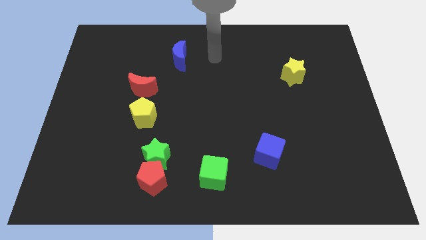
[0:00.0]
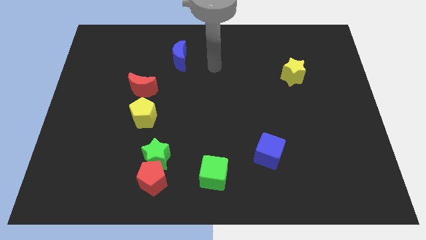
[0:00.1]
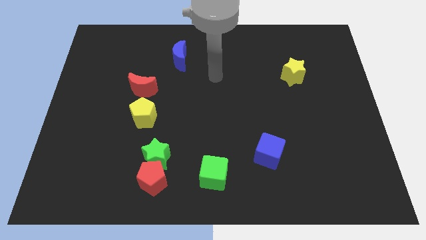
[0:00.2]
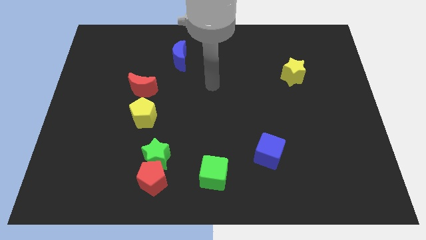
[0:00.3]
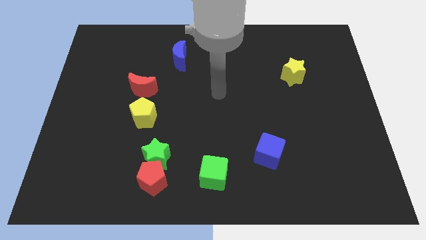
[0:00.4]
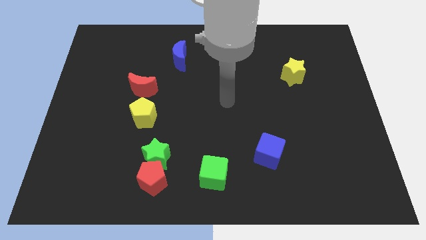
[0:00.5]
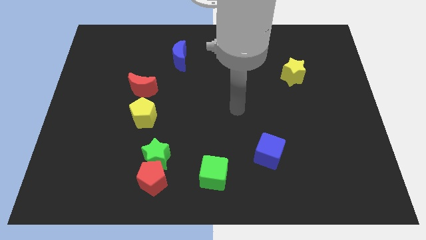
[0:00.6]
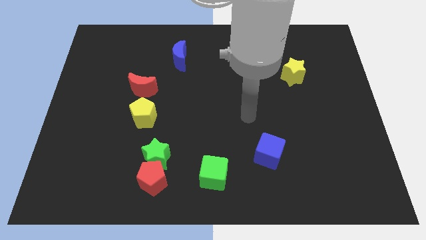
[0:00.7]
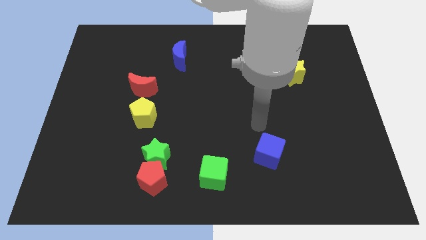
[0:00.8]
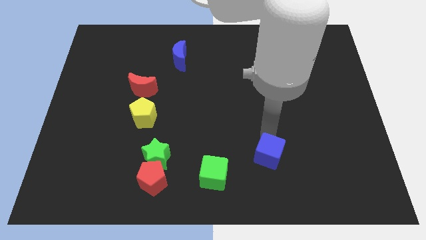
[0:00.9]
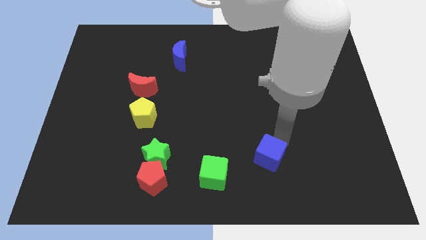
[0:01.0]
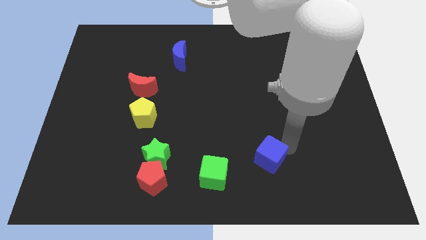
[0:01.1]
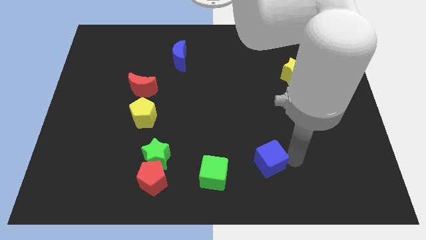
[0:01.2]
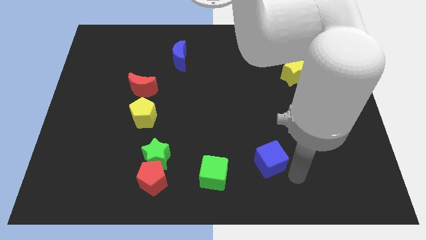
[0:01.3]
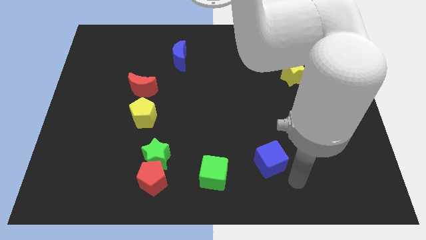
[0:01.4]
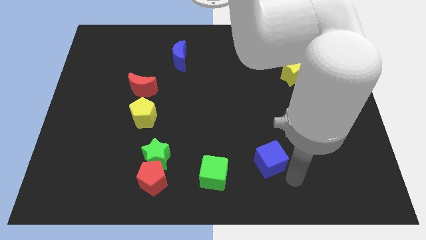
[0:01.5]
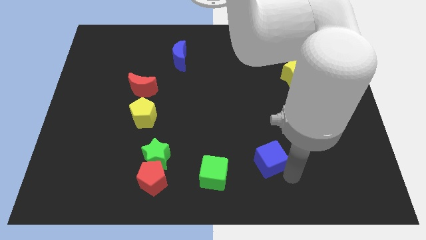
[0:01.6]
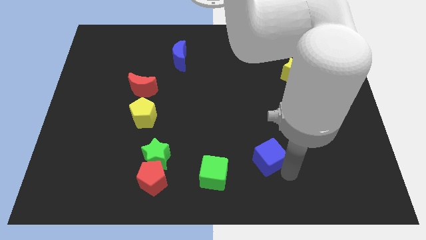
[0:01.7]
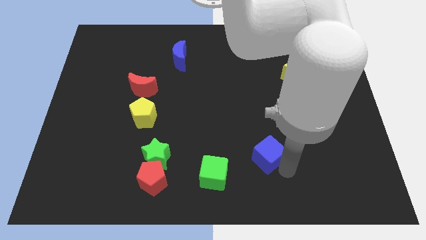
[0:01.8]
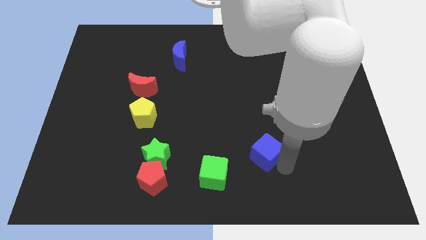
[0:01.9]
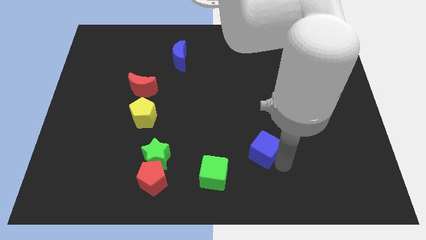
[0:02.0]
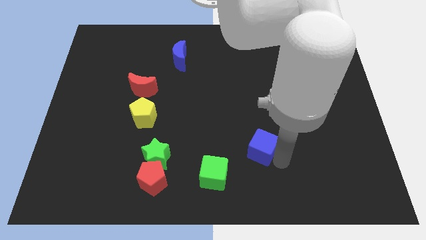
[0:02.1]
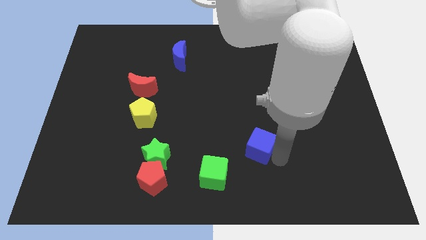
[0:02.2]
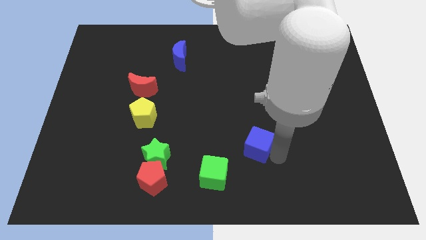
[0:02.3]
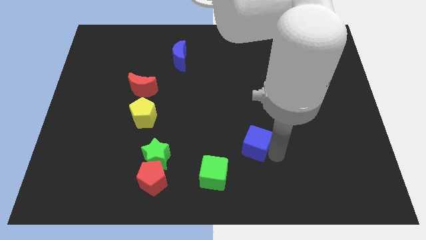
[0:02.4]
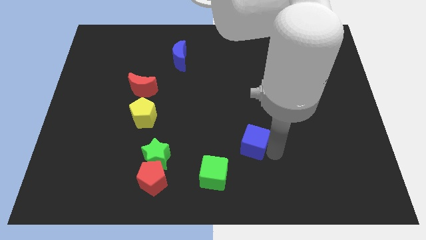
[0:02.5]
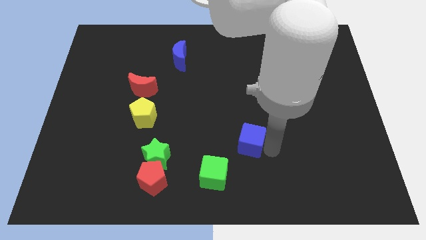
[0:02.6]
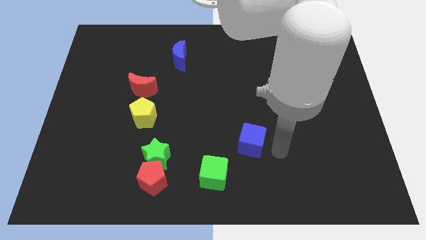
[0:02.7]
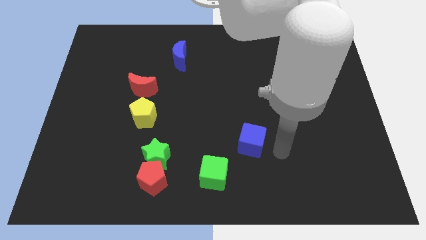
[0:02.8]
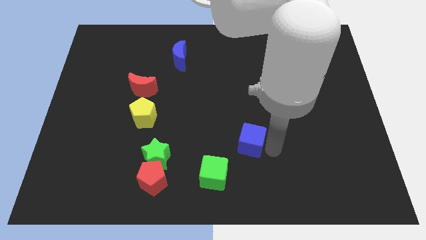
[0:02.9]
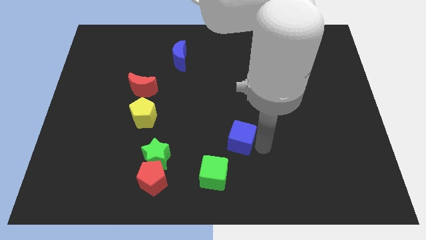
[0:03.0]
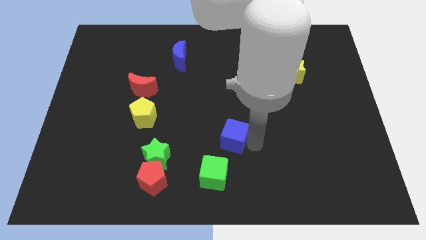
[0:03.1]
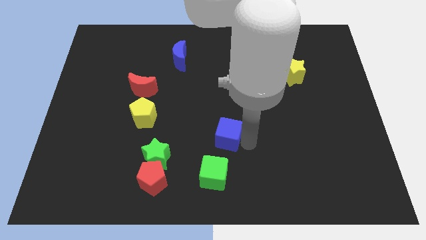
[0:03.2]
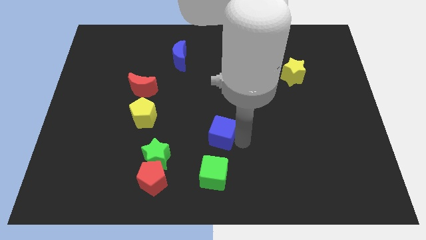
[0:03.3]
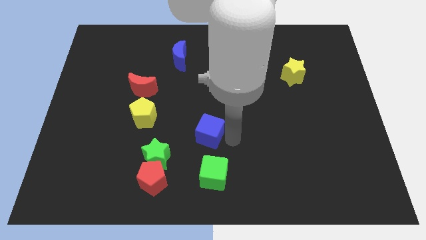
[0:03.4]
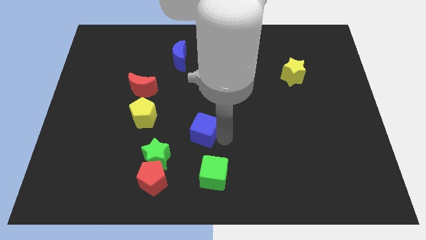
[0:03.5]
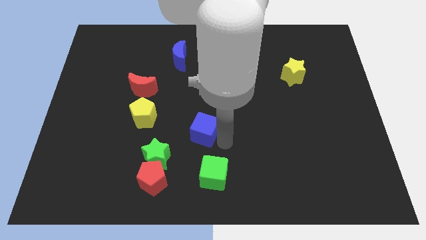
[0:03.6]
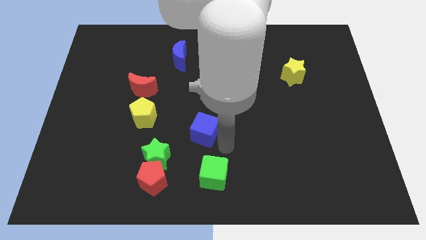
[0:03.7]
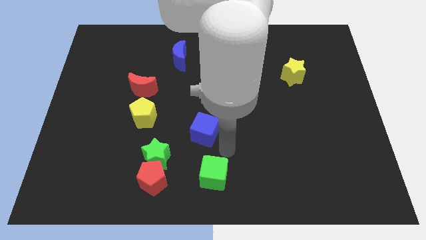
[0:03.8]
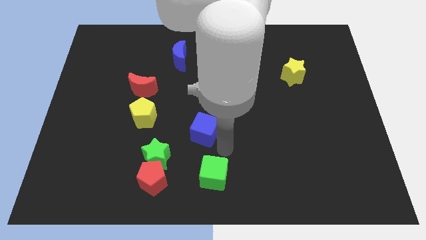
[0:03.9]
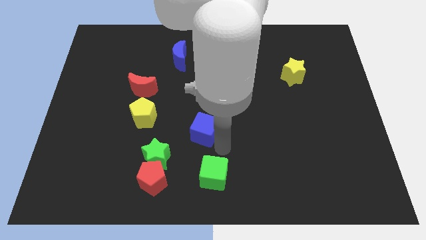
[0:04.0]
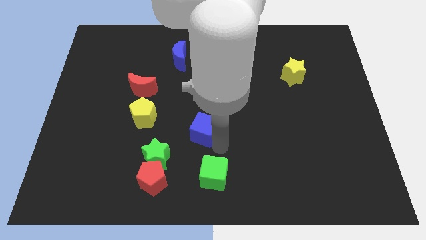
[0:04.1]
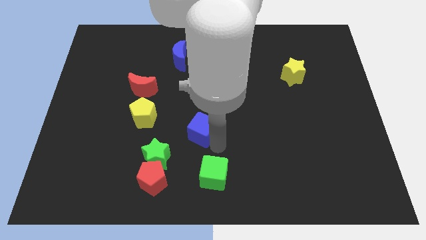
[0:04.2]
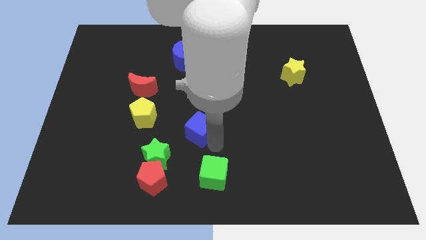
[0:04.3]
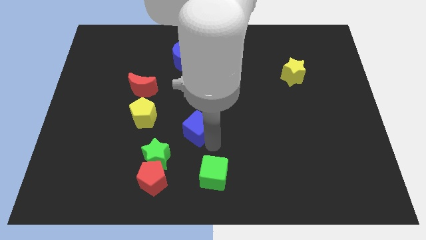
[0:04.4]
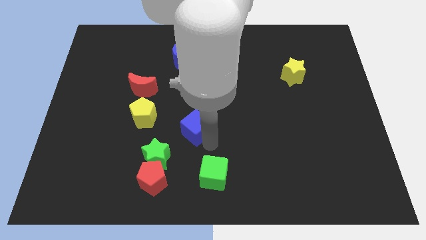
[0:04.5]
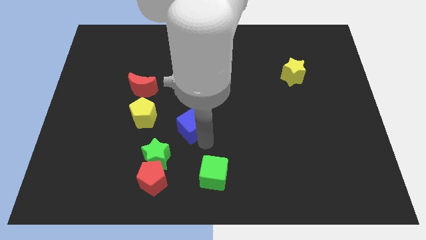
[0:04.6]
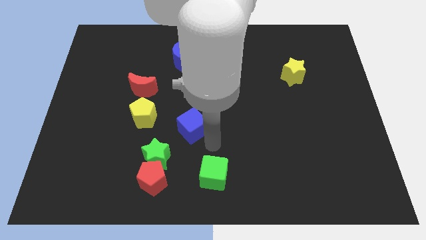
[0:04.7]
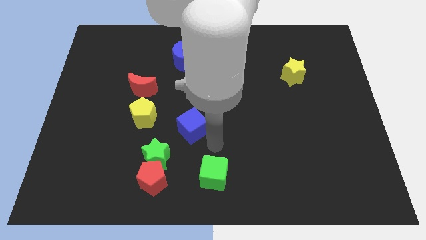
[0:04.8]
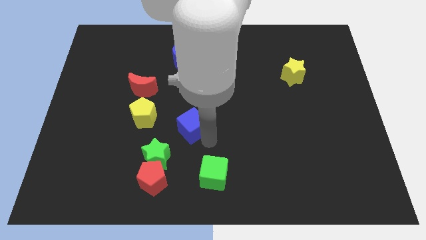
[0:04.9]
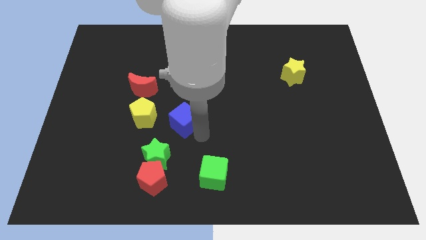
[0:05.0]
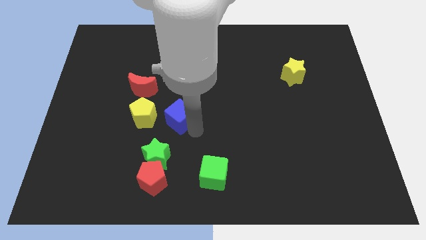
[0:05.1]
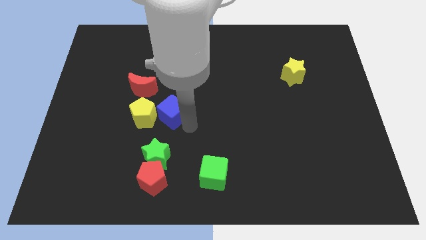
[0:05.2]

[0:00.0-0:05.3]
push the blue cube to the bottom right side of the red moon

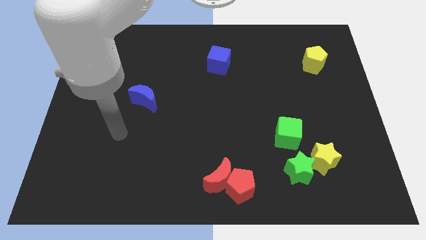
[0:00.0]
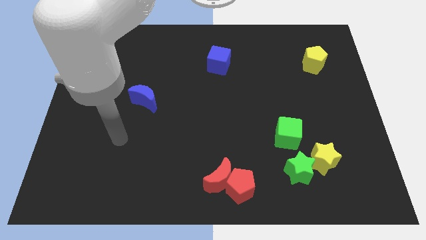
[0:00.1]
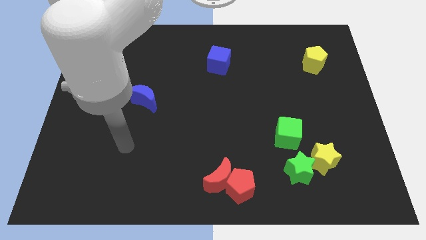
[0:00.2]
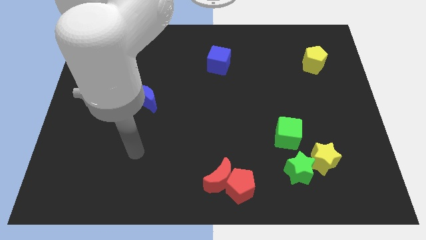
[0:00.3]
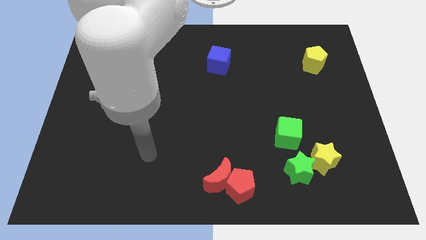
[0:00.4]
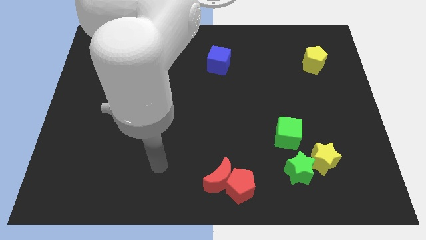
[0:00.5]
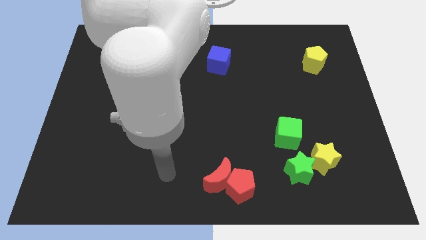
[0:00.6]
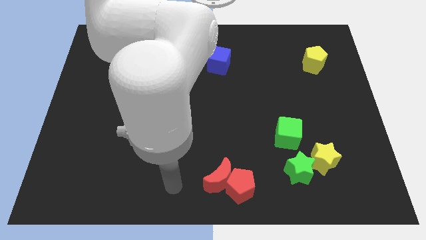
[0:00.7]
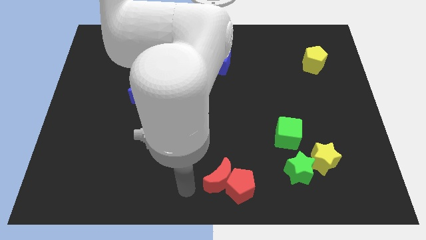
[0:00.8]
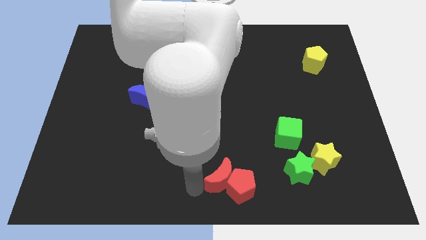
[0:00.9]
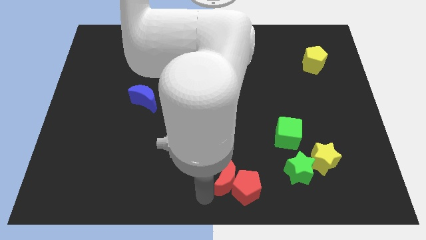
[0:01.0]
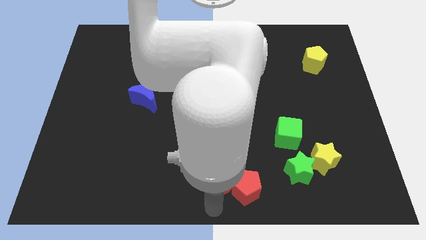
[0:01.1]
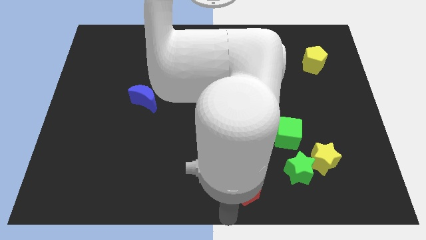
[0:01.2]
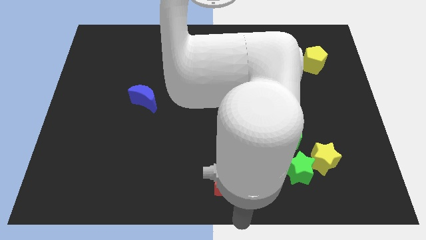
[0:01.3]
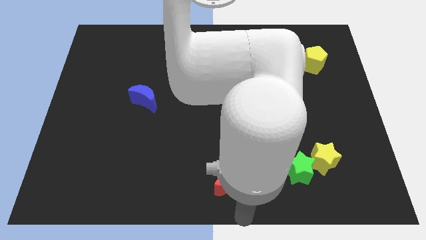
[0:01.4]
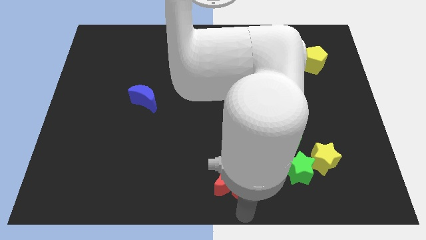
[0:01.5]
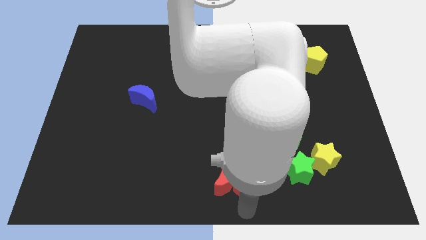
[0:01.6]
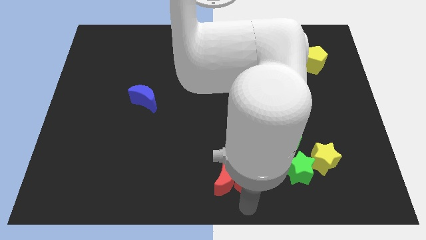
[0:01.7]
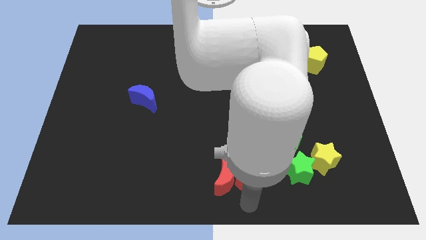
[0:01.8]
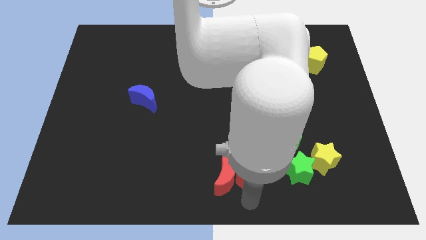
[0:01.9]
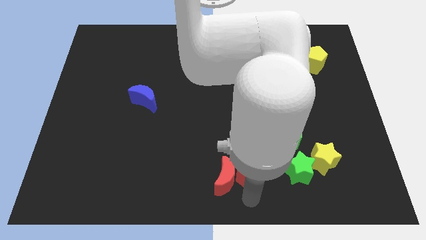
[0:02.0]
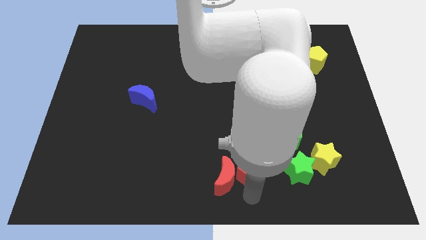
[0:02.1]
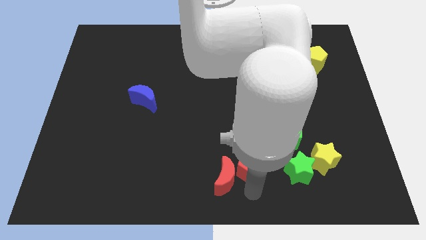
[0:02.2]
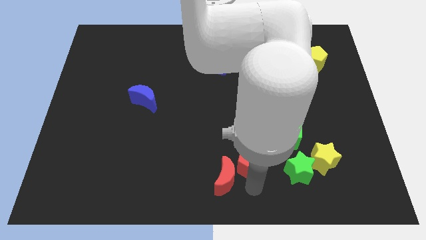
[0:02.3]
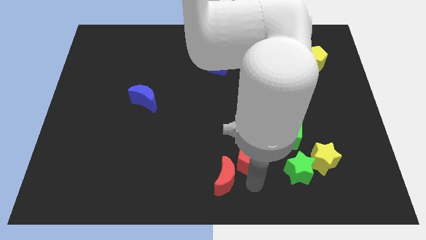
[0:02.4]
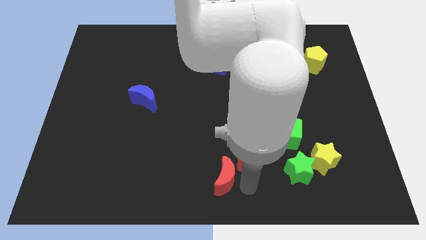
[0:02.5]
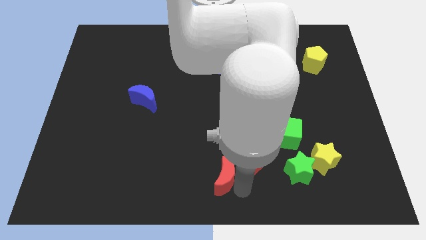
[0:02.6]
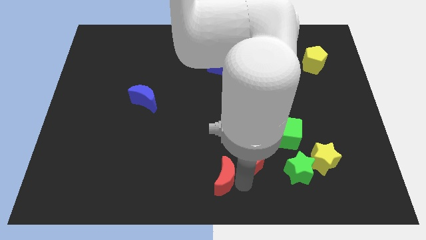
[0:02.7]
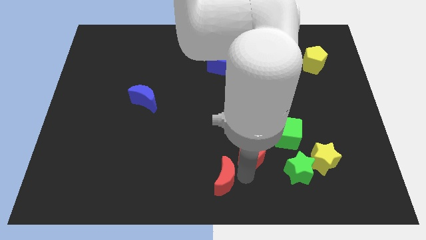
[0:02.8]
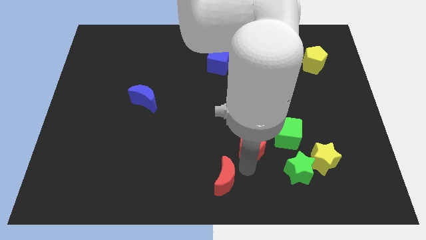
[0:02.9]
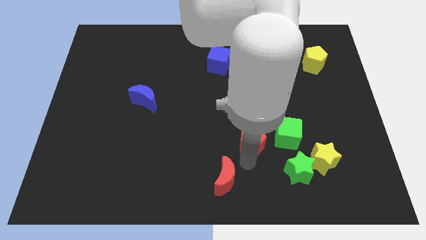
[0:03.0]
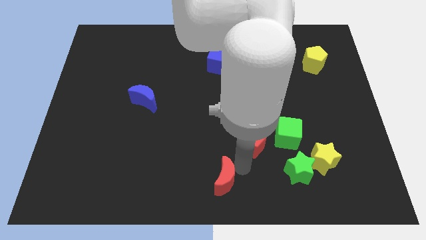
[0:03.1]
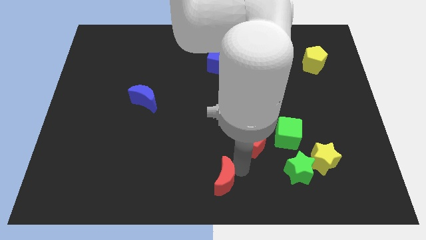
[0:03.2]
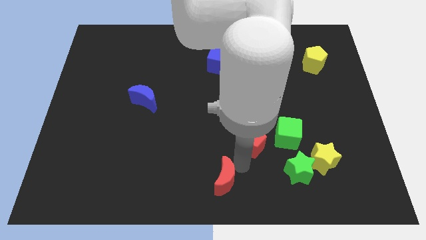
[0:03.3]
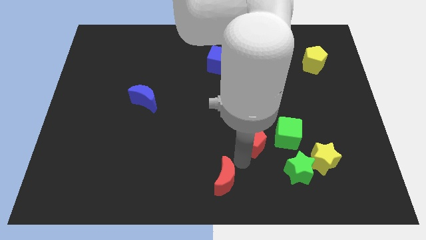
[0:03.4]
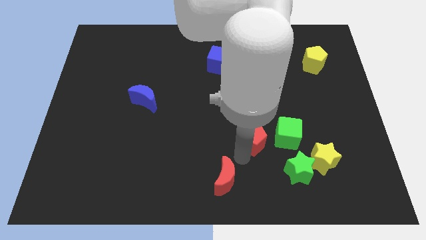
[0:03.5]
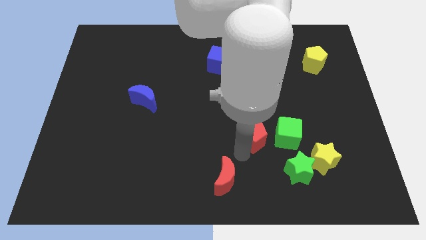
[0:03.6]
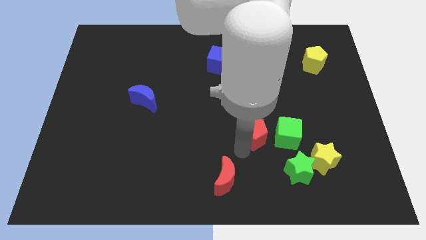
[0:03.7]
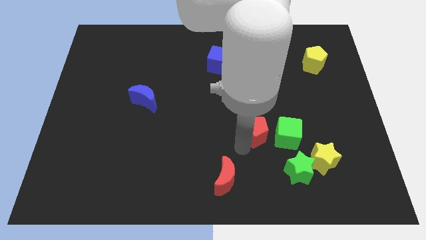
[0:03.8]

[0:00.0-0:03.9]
slide the red pentagon diagonally up and to the left of the green cube
